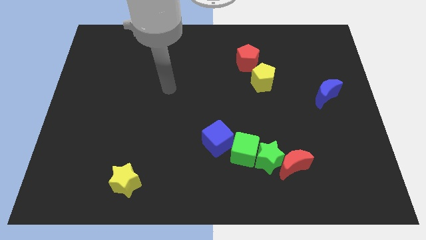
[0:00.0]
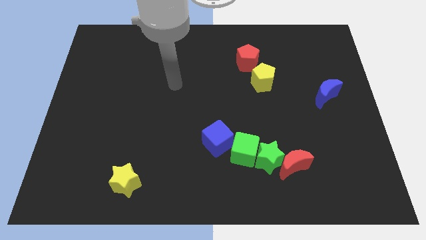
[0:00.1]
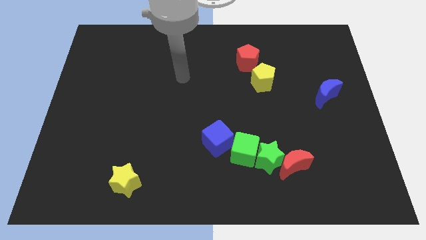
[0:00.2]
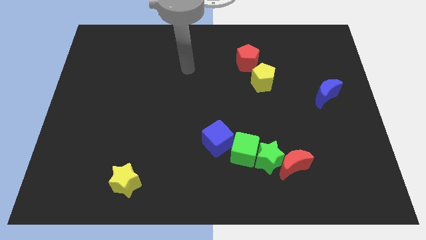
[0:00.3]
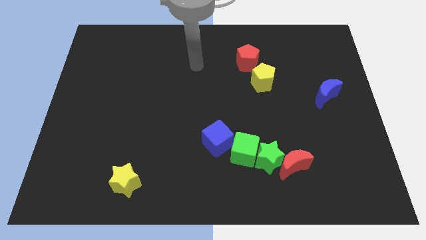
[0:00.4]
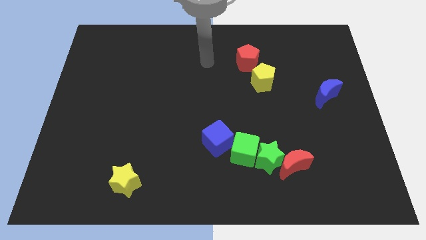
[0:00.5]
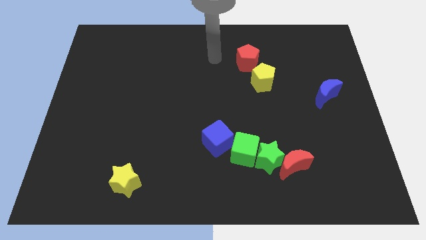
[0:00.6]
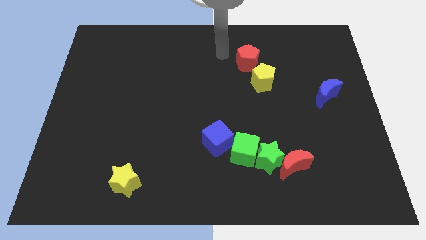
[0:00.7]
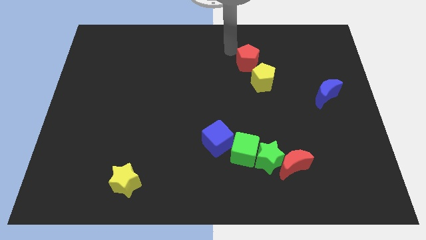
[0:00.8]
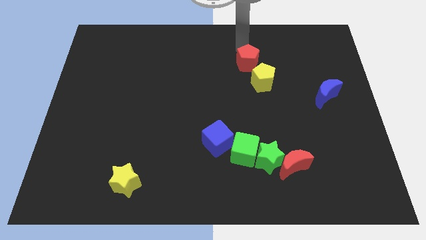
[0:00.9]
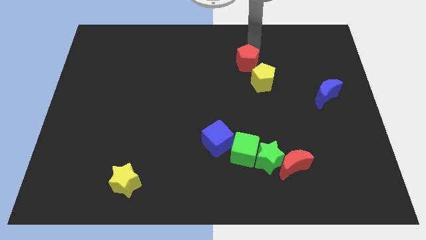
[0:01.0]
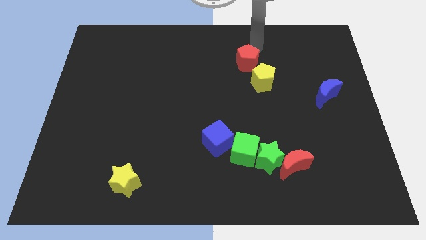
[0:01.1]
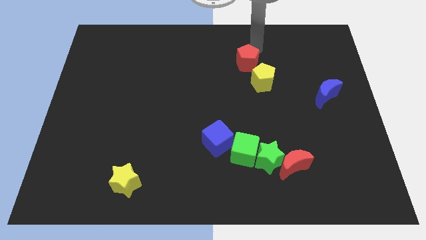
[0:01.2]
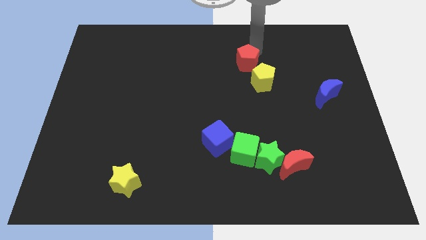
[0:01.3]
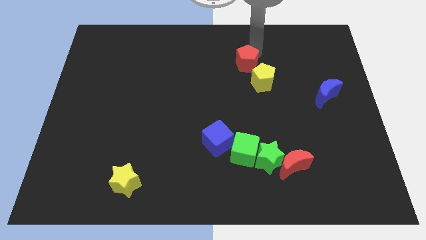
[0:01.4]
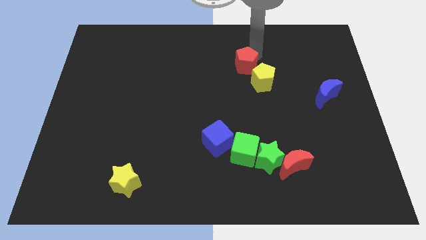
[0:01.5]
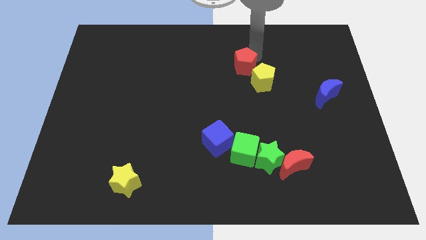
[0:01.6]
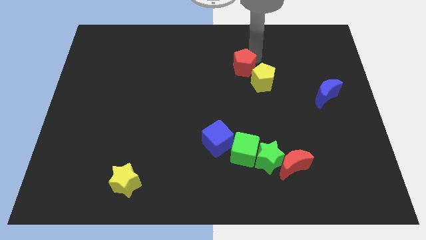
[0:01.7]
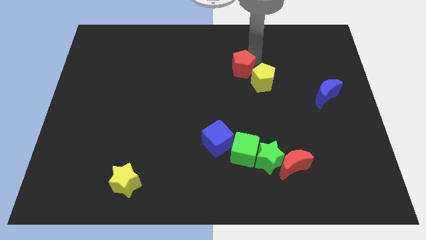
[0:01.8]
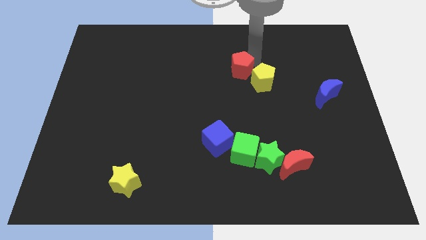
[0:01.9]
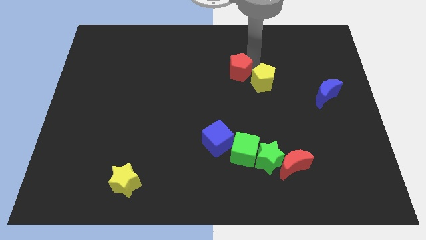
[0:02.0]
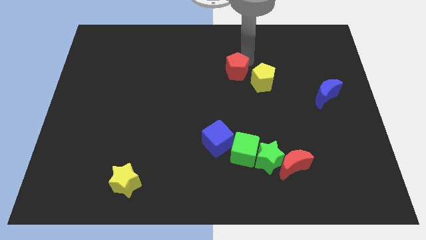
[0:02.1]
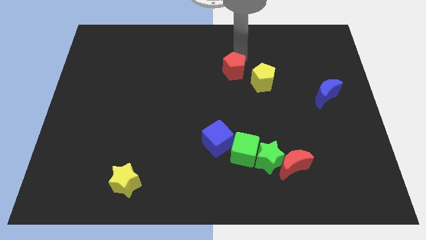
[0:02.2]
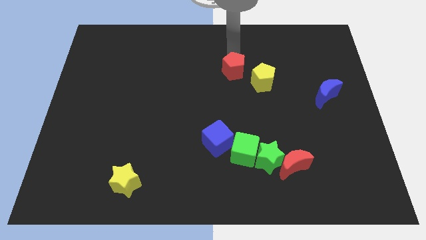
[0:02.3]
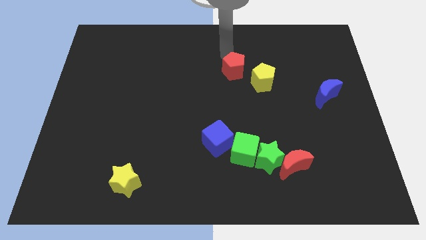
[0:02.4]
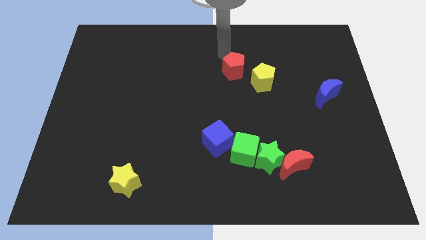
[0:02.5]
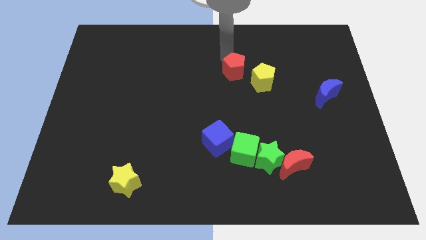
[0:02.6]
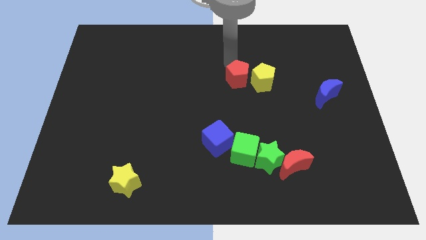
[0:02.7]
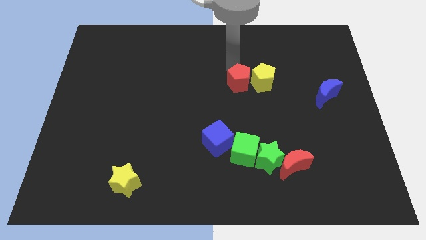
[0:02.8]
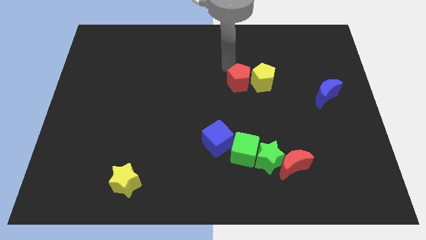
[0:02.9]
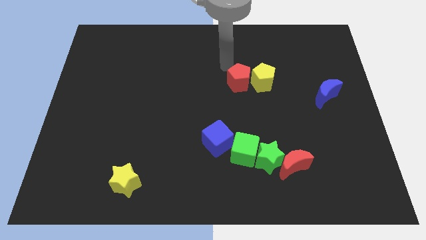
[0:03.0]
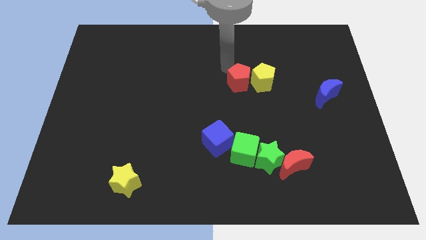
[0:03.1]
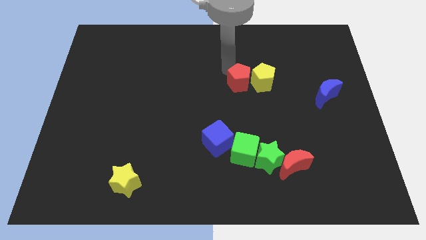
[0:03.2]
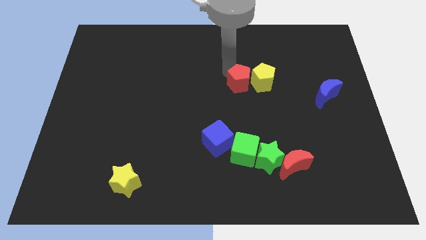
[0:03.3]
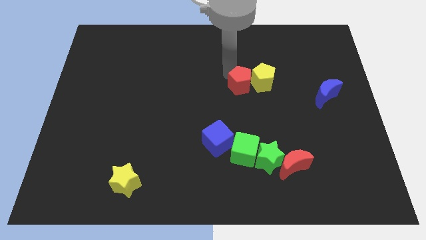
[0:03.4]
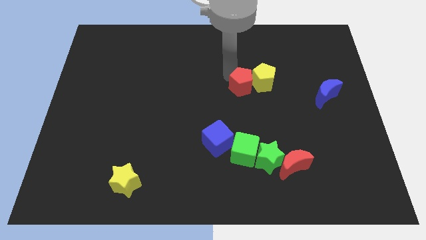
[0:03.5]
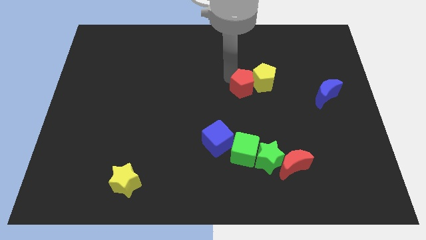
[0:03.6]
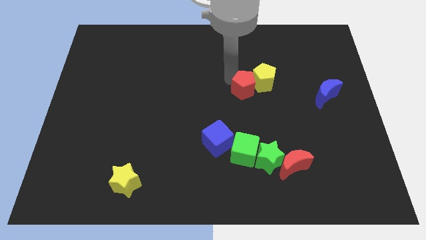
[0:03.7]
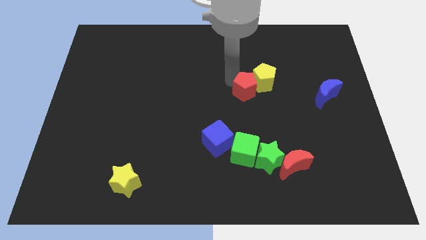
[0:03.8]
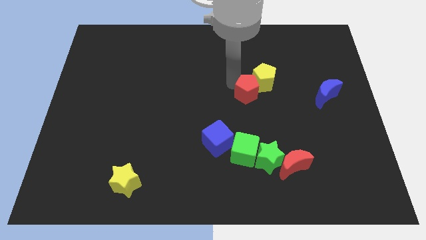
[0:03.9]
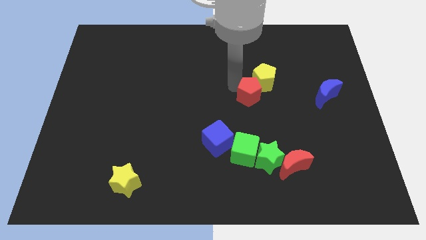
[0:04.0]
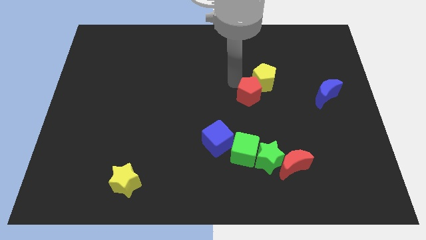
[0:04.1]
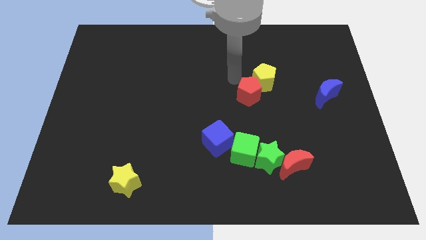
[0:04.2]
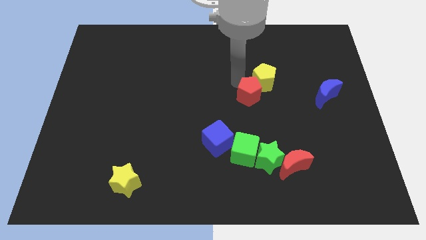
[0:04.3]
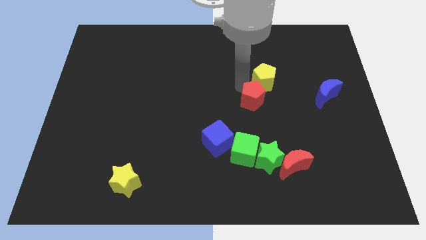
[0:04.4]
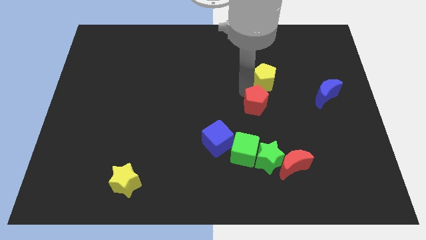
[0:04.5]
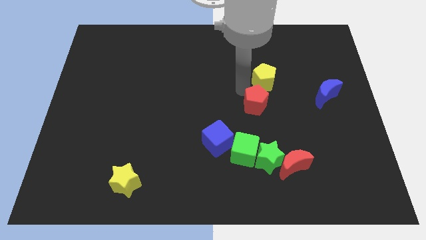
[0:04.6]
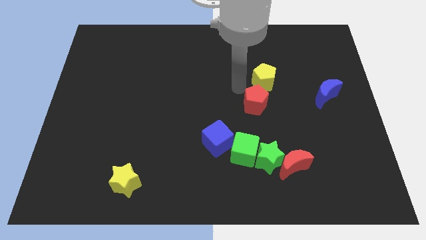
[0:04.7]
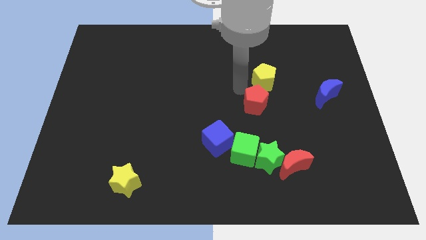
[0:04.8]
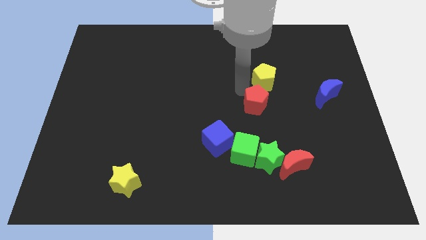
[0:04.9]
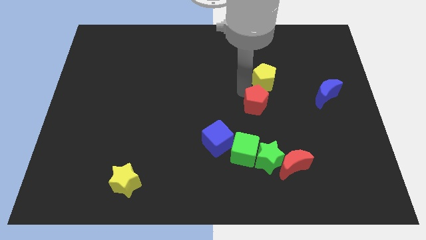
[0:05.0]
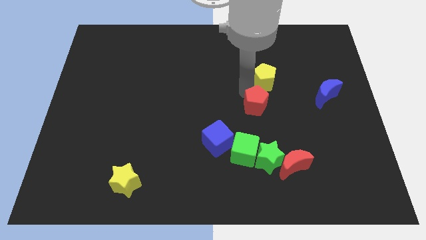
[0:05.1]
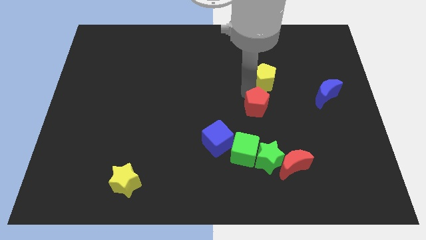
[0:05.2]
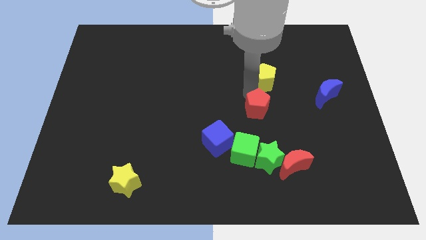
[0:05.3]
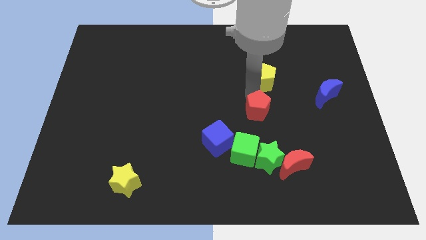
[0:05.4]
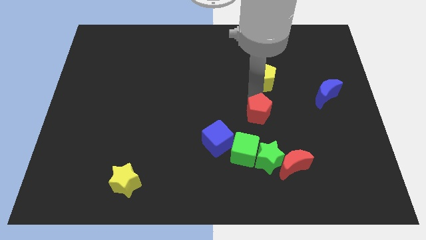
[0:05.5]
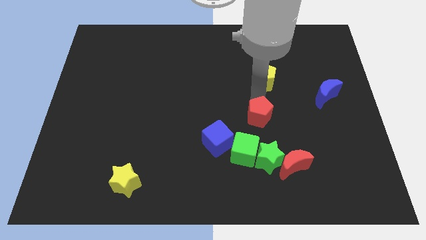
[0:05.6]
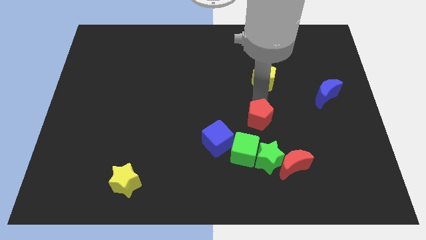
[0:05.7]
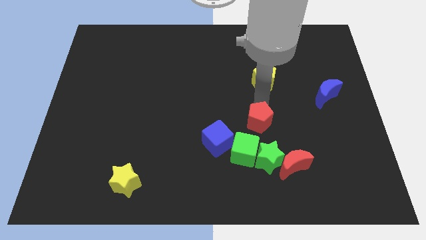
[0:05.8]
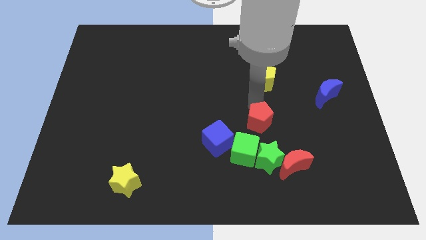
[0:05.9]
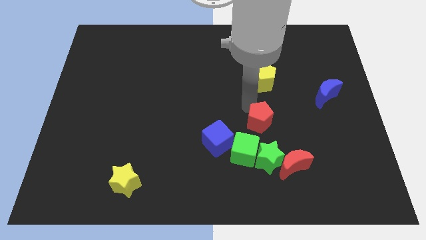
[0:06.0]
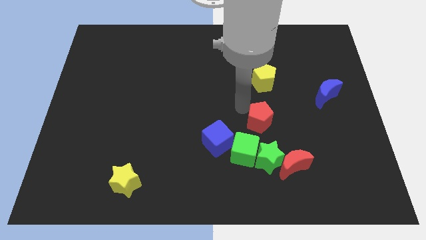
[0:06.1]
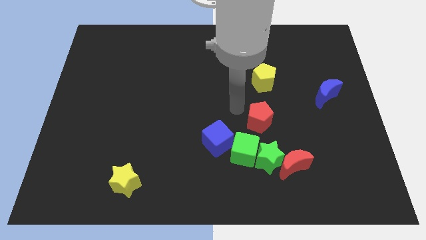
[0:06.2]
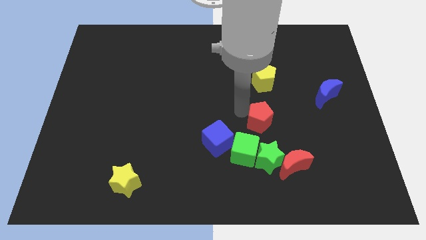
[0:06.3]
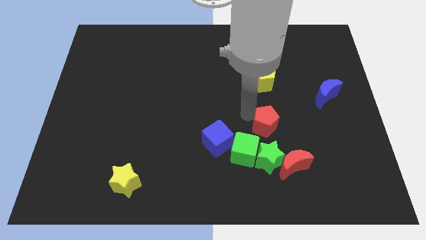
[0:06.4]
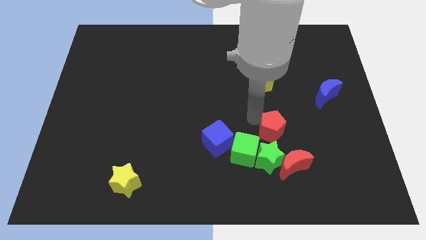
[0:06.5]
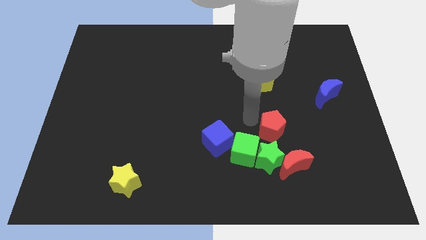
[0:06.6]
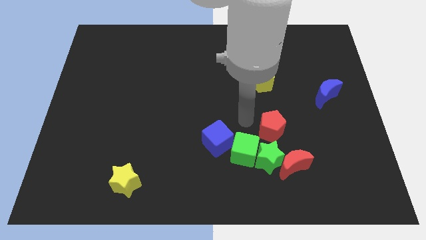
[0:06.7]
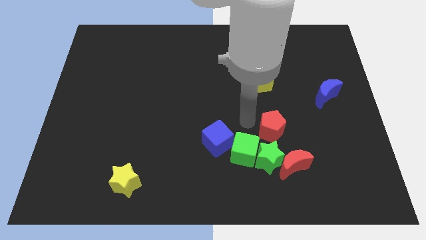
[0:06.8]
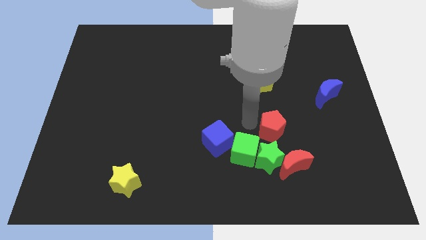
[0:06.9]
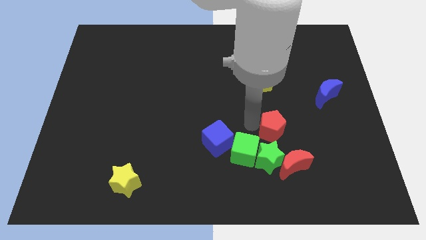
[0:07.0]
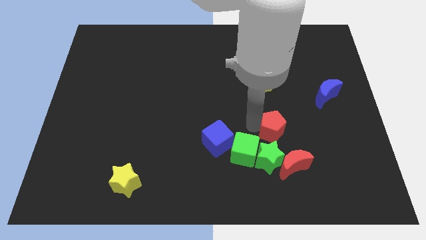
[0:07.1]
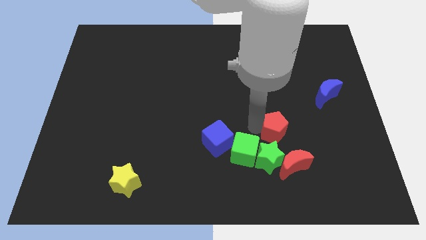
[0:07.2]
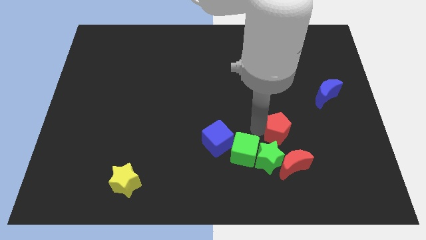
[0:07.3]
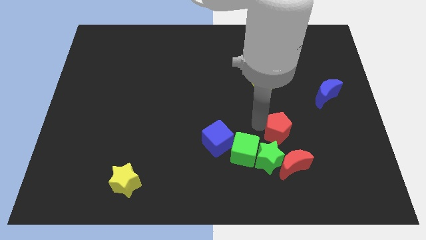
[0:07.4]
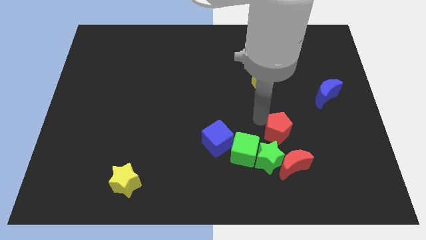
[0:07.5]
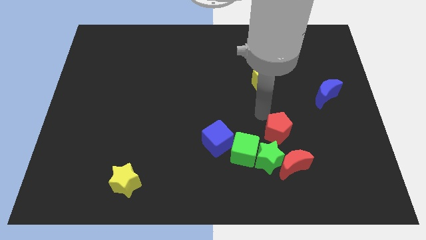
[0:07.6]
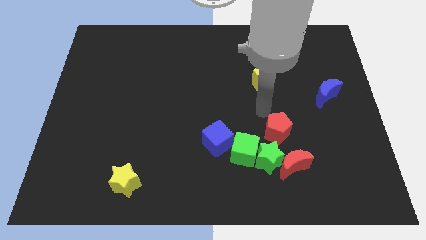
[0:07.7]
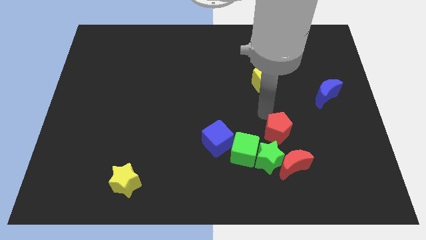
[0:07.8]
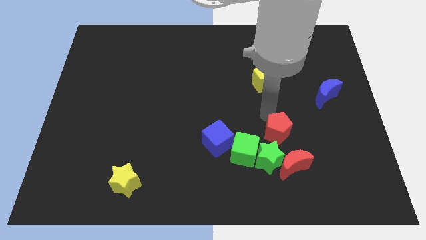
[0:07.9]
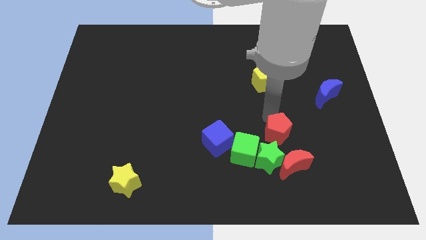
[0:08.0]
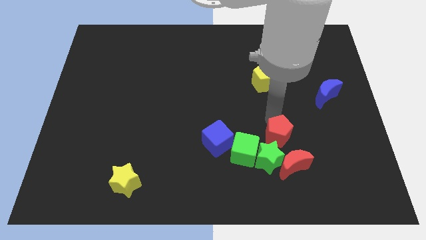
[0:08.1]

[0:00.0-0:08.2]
slide the red pentagon right of the green cube
